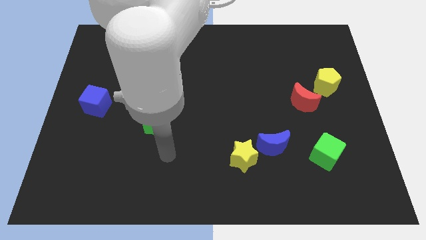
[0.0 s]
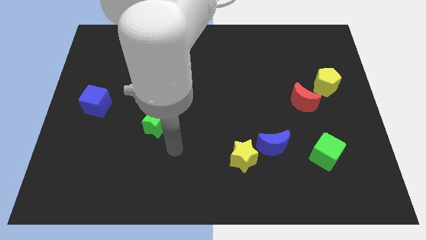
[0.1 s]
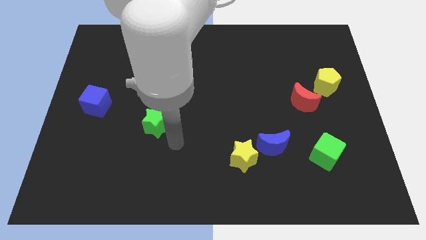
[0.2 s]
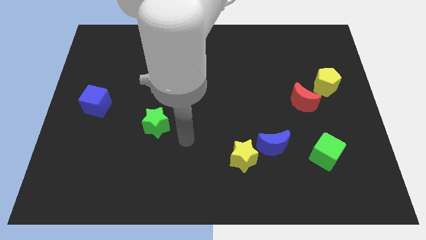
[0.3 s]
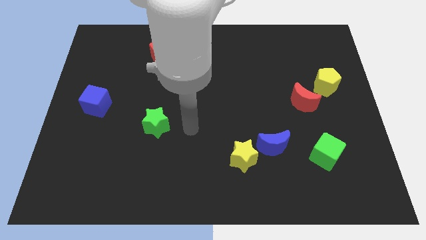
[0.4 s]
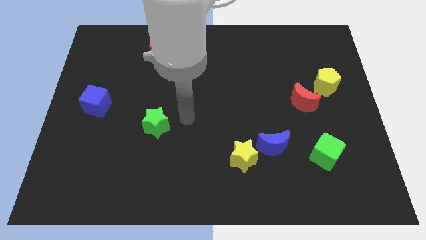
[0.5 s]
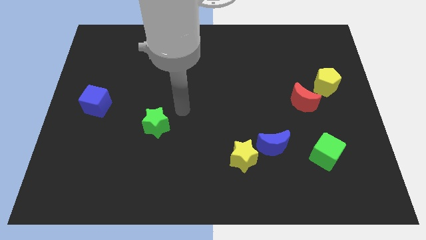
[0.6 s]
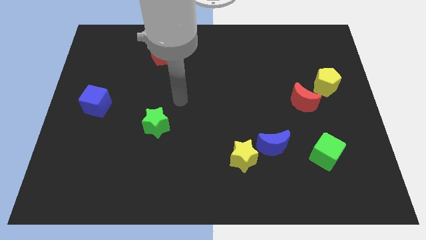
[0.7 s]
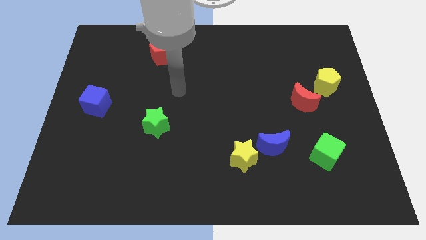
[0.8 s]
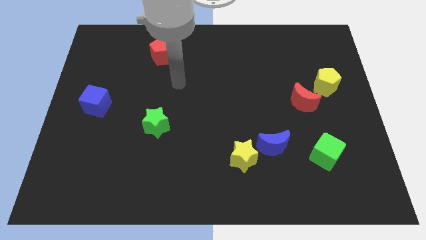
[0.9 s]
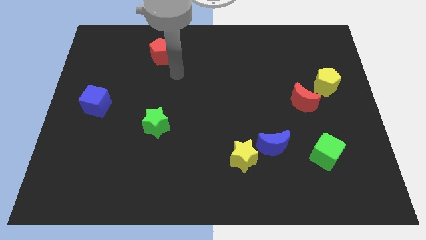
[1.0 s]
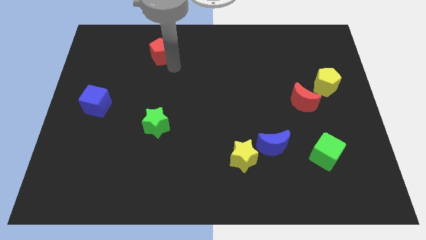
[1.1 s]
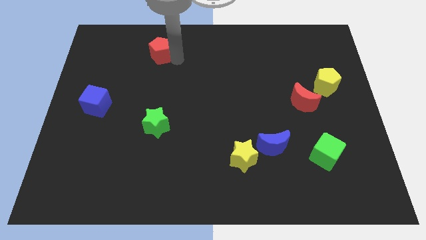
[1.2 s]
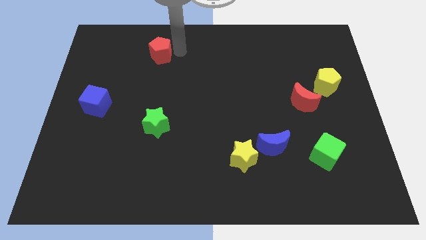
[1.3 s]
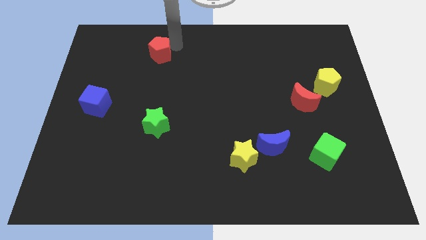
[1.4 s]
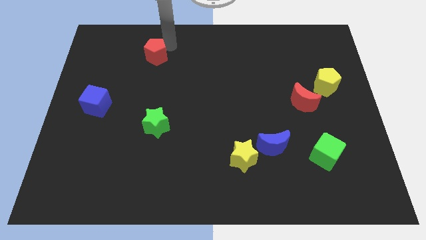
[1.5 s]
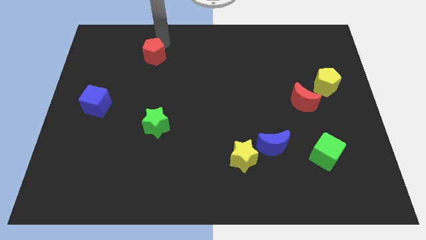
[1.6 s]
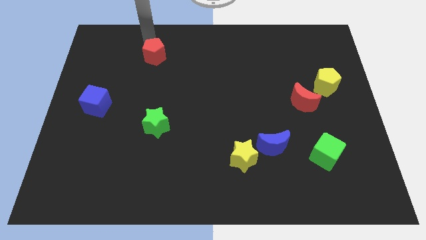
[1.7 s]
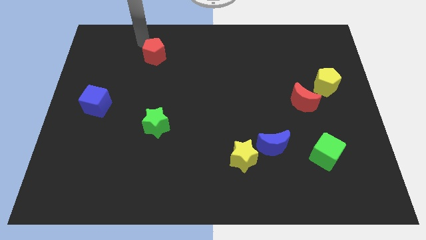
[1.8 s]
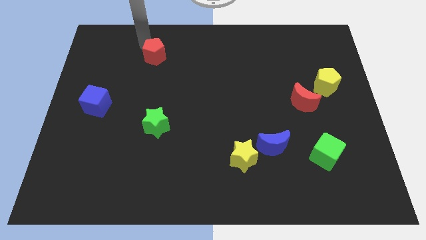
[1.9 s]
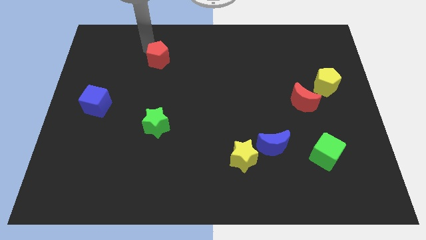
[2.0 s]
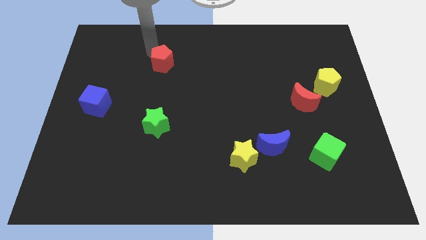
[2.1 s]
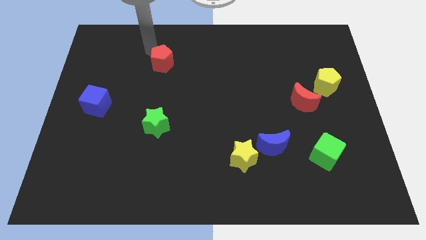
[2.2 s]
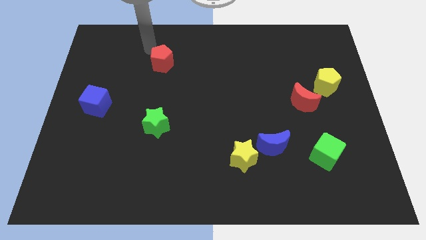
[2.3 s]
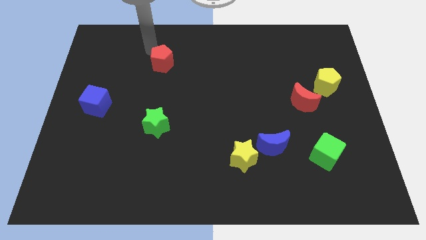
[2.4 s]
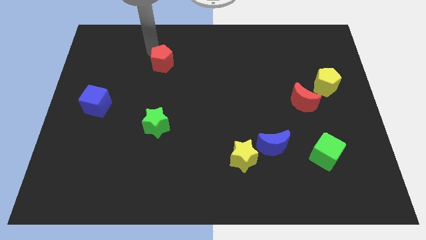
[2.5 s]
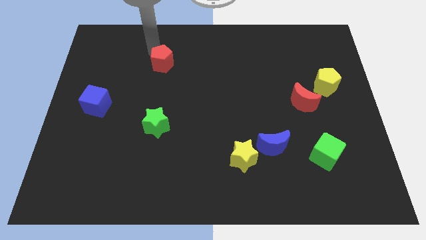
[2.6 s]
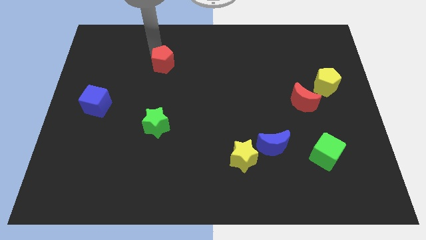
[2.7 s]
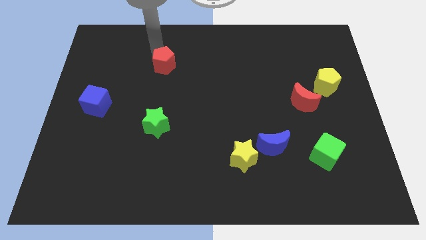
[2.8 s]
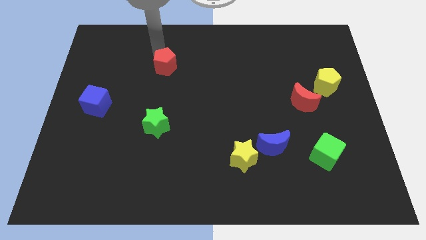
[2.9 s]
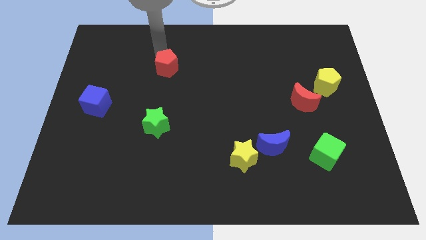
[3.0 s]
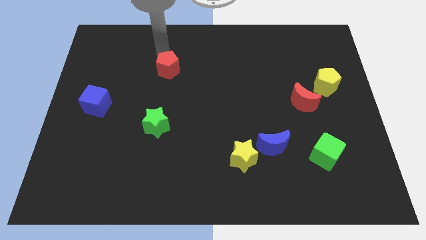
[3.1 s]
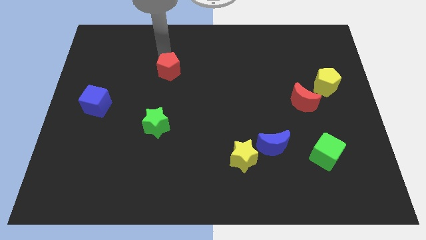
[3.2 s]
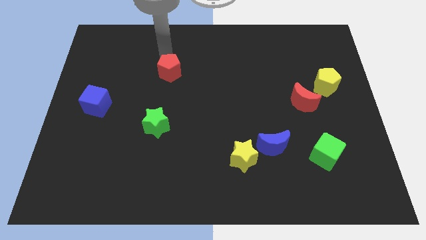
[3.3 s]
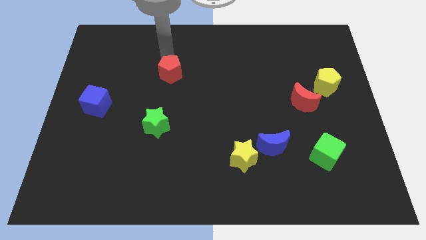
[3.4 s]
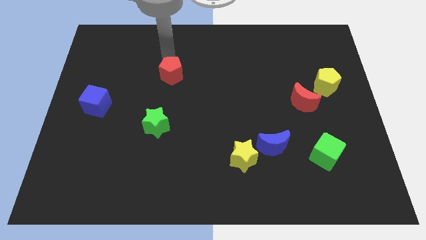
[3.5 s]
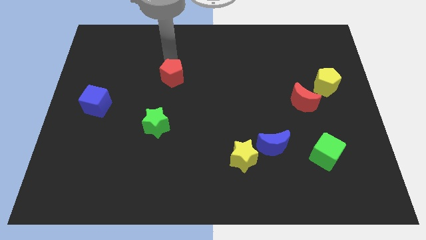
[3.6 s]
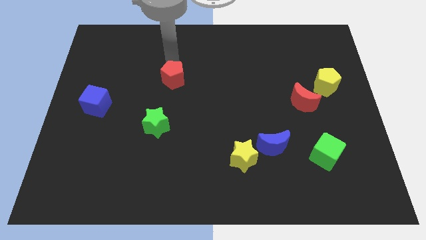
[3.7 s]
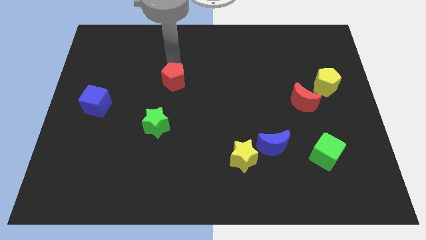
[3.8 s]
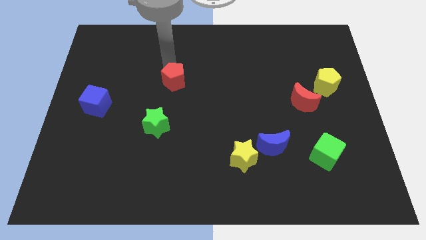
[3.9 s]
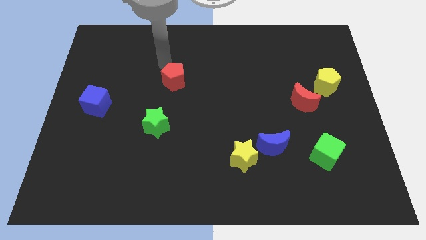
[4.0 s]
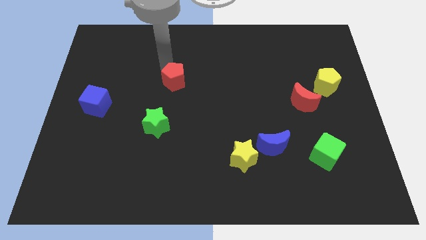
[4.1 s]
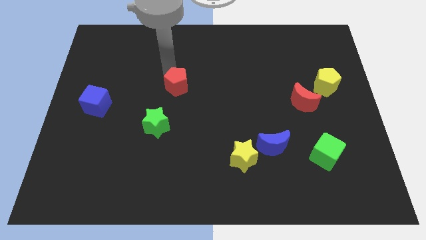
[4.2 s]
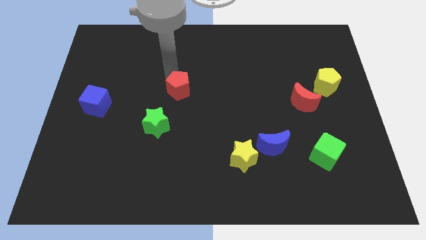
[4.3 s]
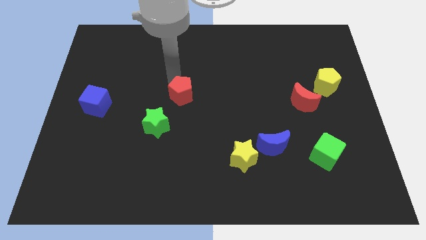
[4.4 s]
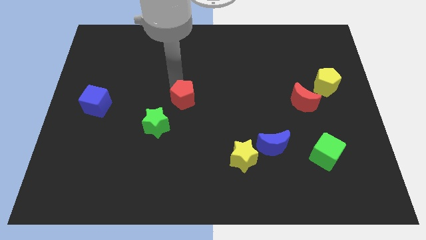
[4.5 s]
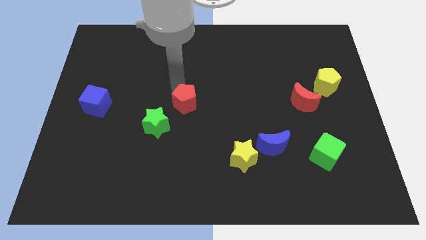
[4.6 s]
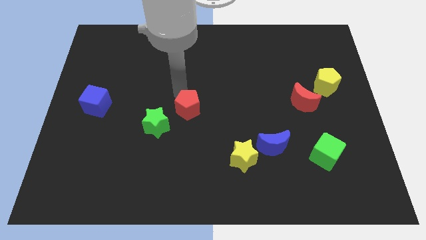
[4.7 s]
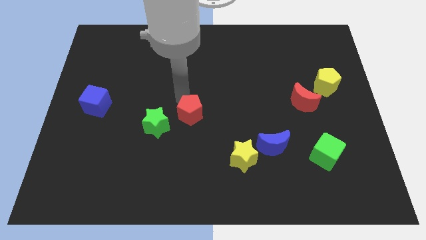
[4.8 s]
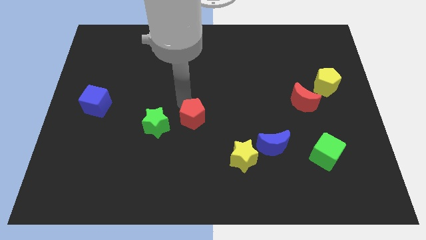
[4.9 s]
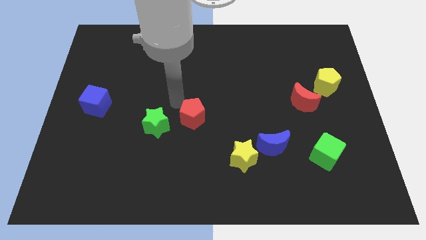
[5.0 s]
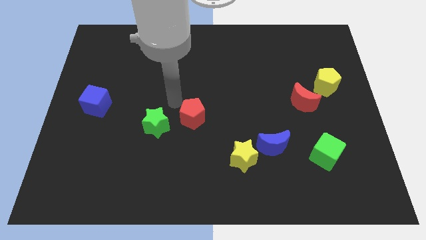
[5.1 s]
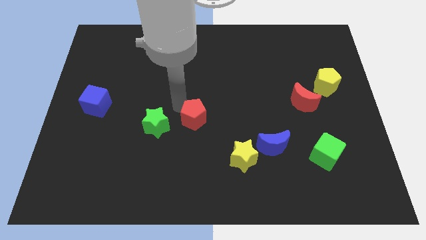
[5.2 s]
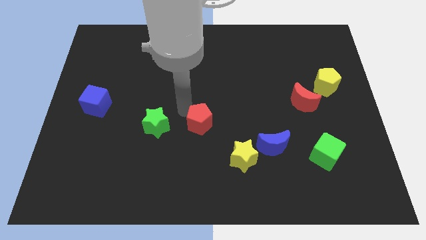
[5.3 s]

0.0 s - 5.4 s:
move the red pentagon to the top left of the yellow star

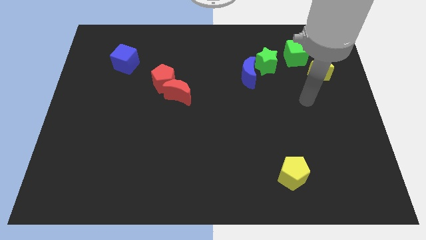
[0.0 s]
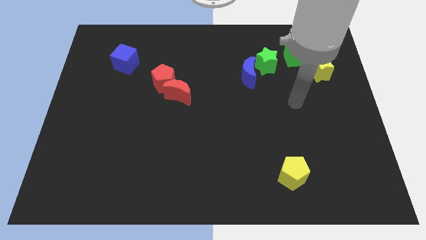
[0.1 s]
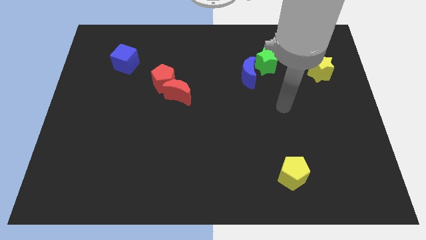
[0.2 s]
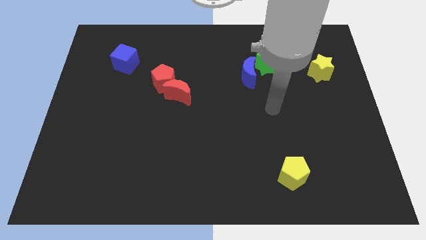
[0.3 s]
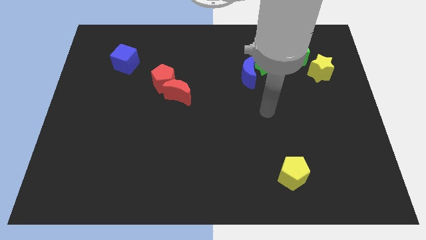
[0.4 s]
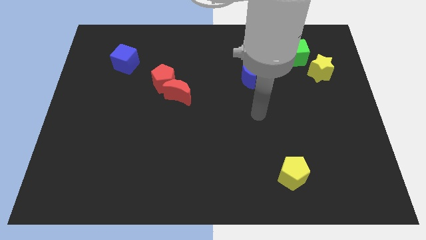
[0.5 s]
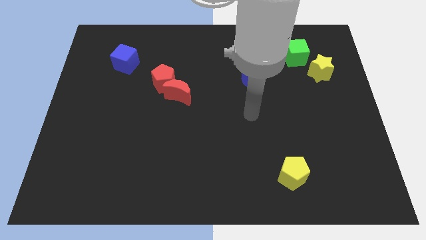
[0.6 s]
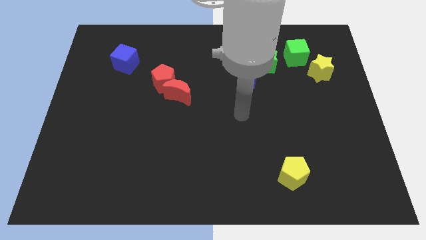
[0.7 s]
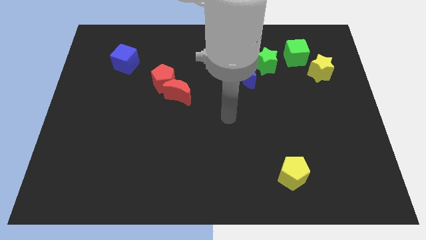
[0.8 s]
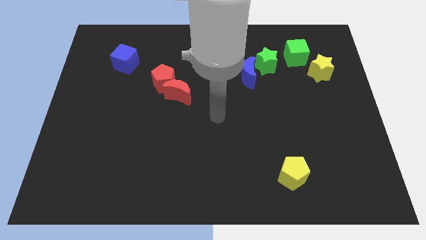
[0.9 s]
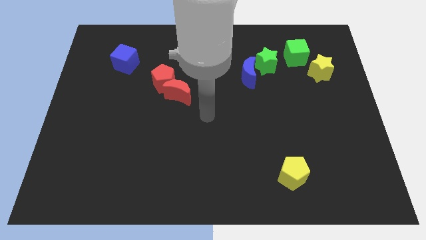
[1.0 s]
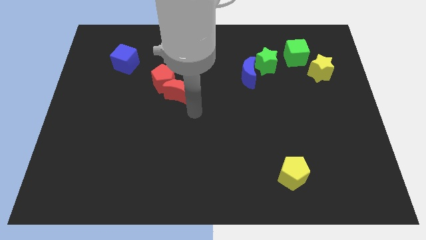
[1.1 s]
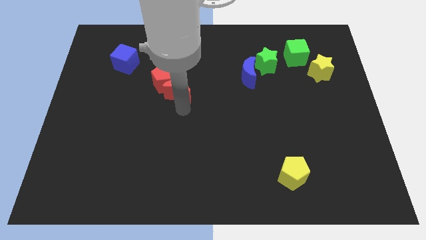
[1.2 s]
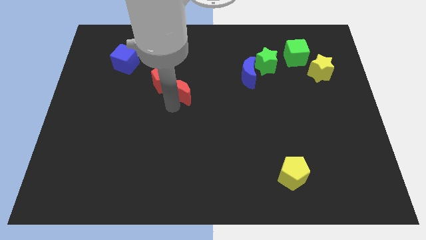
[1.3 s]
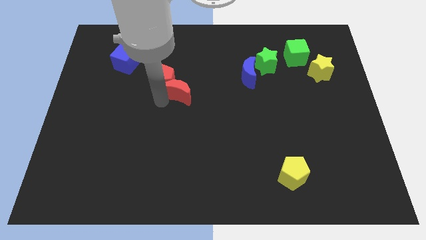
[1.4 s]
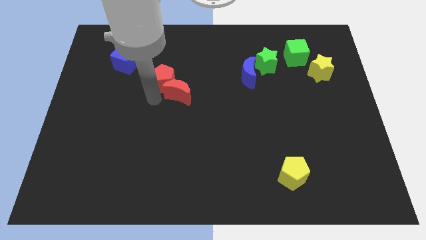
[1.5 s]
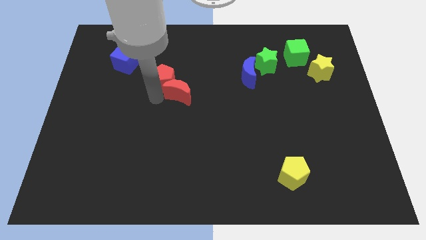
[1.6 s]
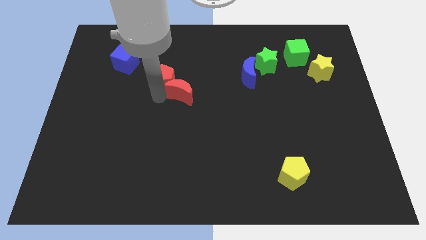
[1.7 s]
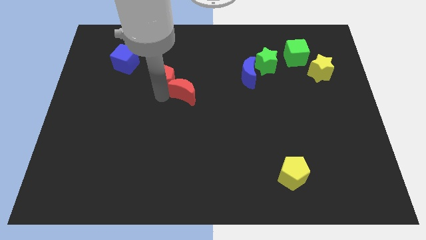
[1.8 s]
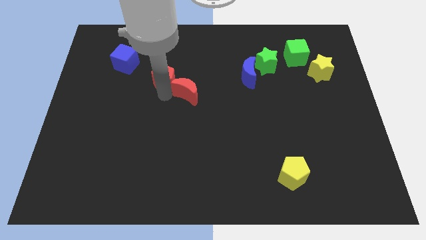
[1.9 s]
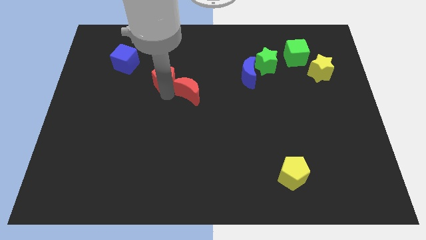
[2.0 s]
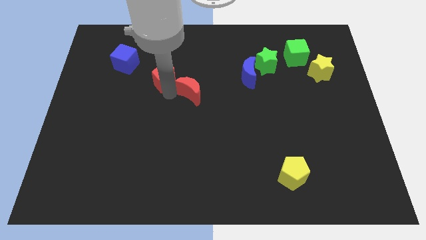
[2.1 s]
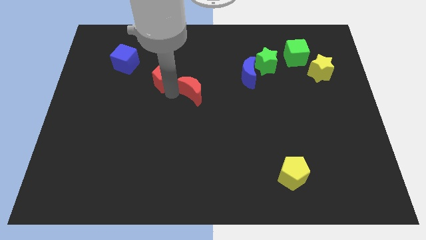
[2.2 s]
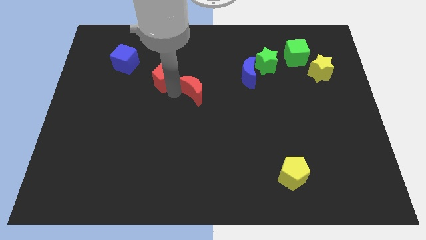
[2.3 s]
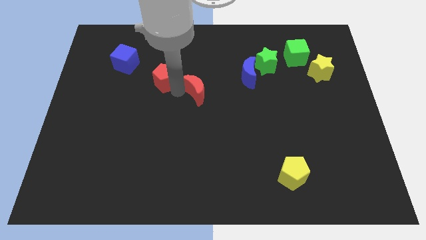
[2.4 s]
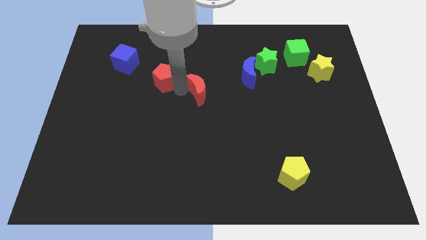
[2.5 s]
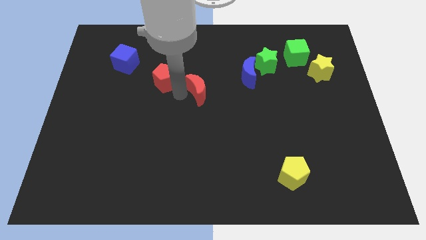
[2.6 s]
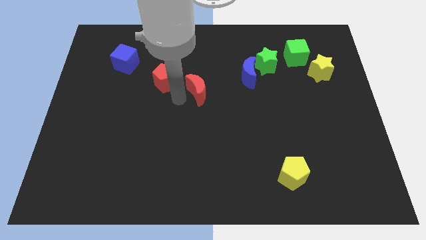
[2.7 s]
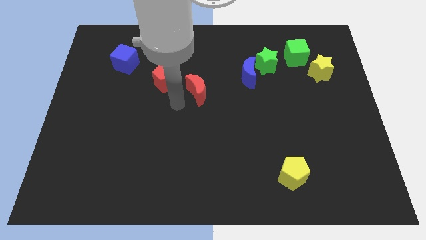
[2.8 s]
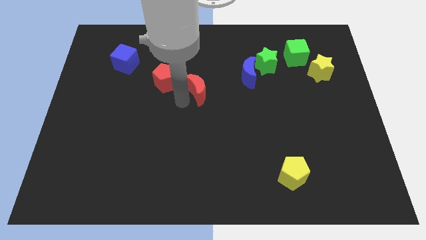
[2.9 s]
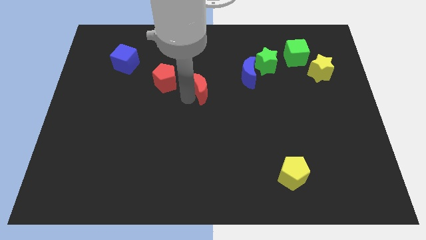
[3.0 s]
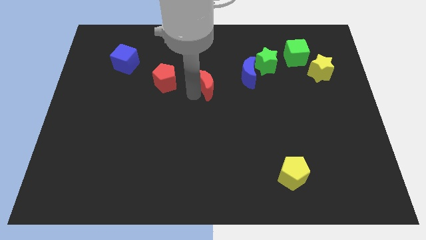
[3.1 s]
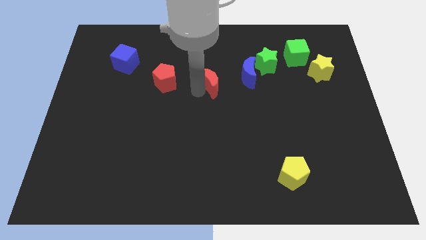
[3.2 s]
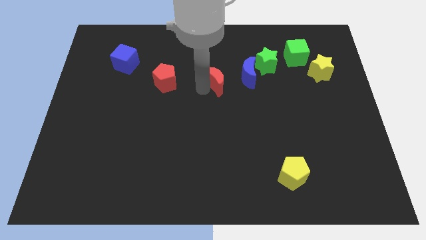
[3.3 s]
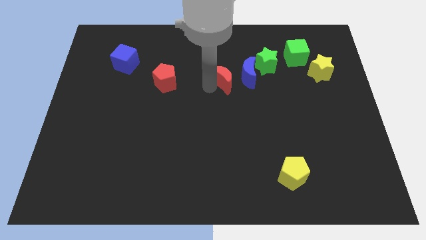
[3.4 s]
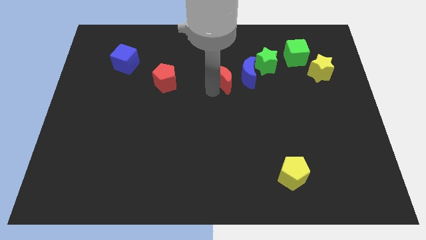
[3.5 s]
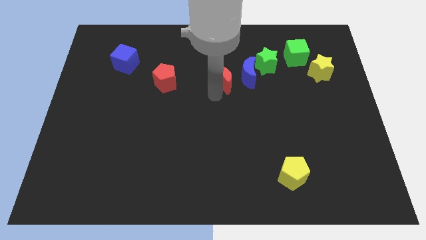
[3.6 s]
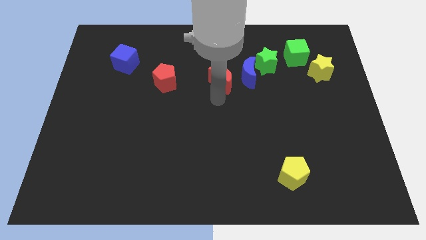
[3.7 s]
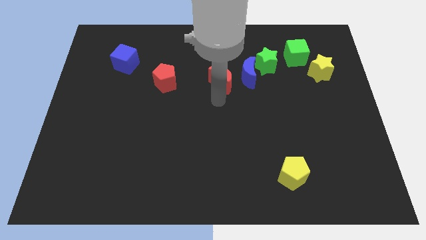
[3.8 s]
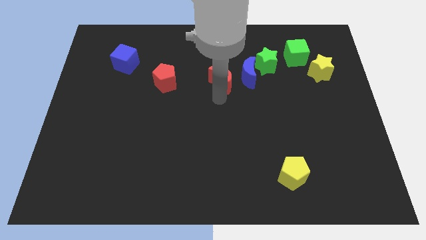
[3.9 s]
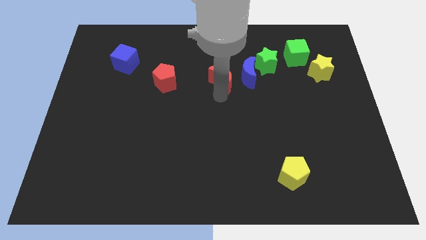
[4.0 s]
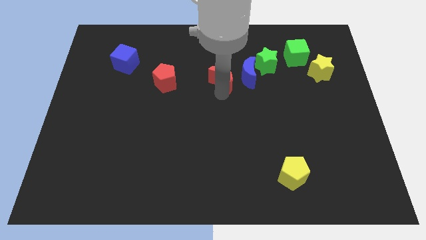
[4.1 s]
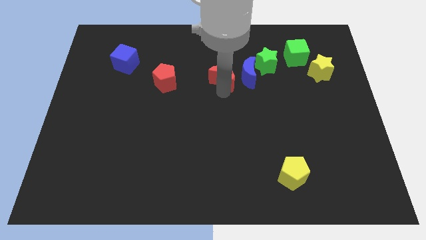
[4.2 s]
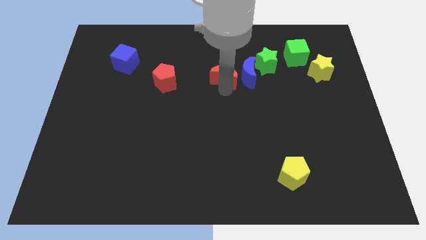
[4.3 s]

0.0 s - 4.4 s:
slide the red moon left of the green star
